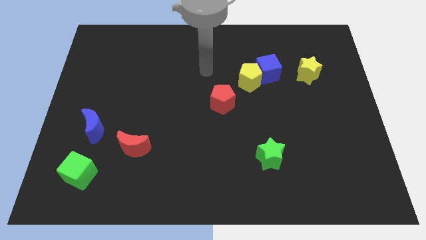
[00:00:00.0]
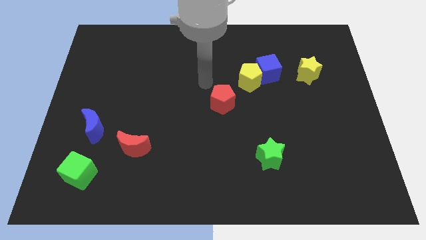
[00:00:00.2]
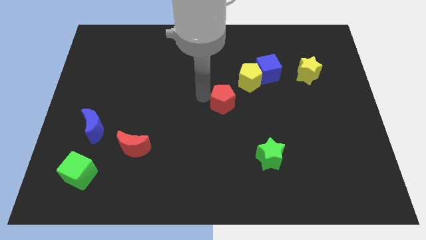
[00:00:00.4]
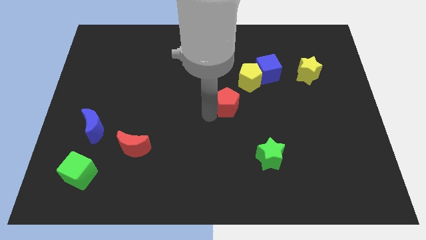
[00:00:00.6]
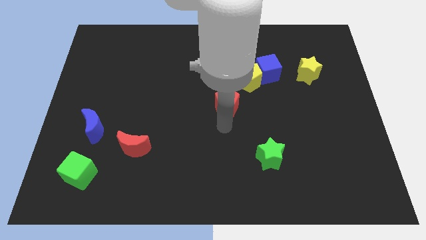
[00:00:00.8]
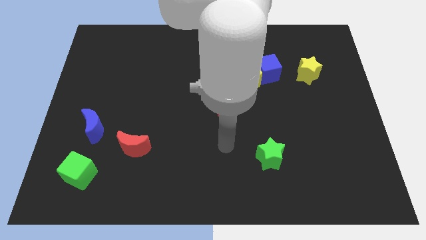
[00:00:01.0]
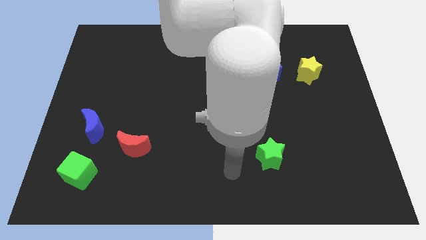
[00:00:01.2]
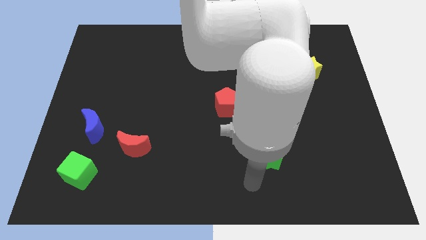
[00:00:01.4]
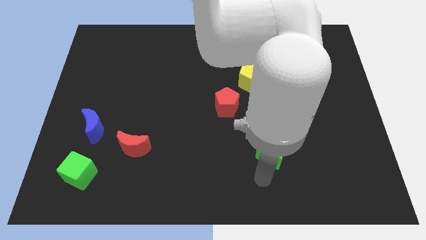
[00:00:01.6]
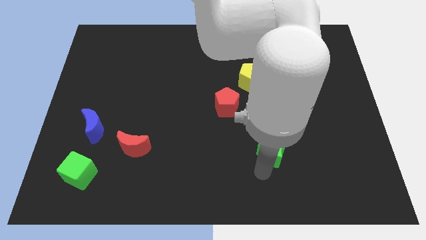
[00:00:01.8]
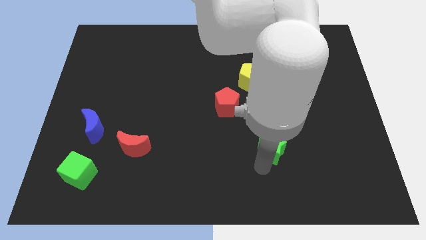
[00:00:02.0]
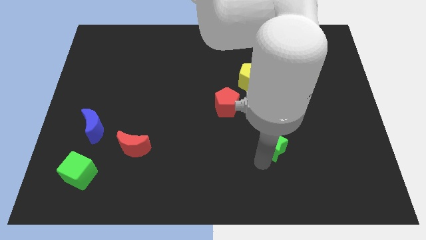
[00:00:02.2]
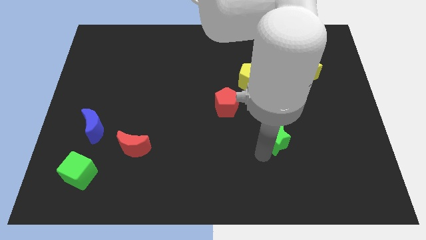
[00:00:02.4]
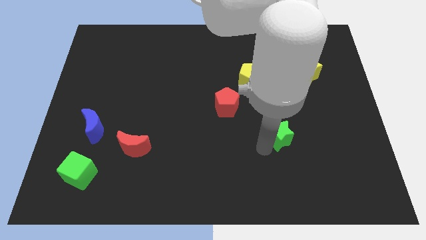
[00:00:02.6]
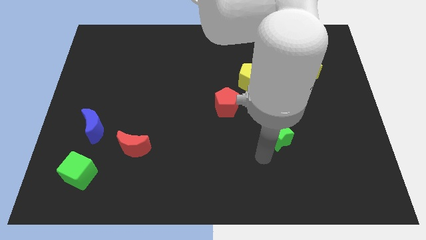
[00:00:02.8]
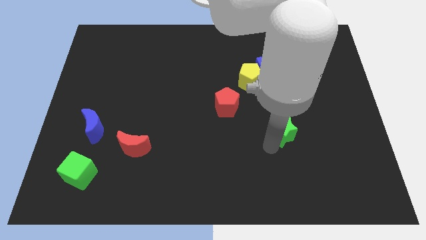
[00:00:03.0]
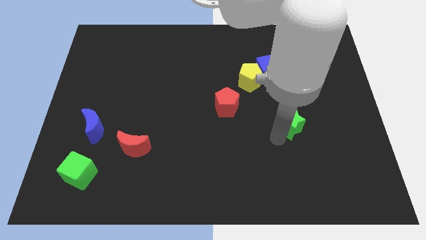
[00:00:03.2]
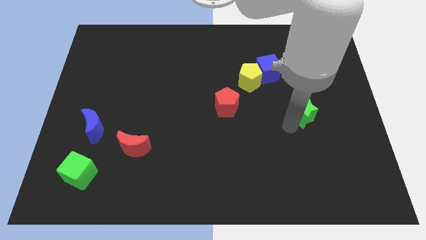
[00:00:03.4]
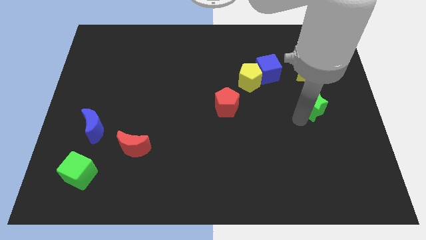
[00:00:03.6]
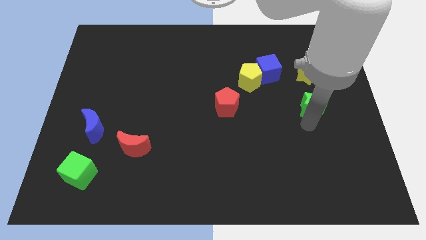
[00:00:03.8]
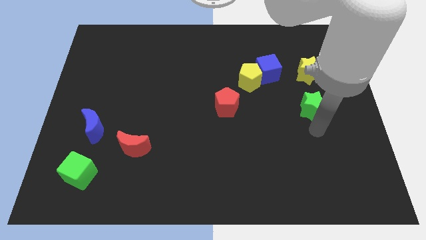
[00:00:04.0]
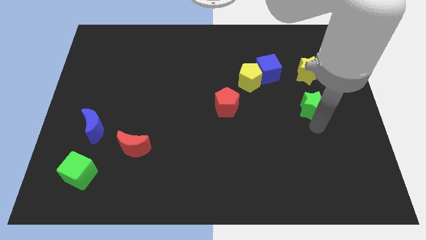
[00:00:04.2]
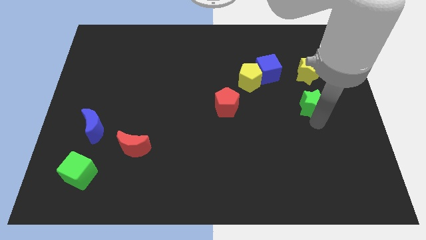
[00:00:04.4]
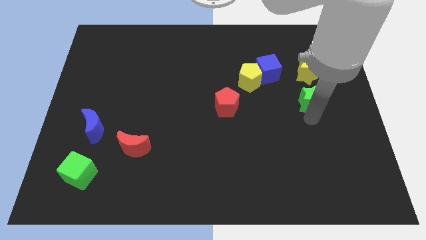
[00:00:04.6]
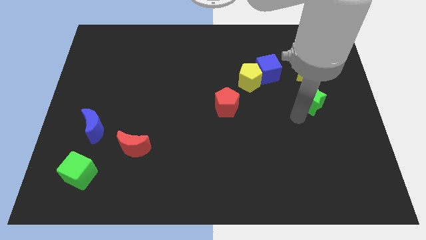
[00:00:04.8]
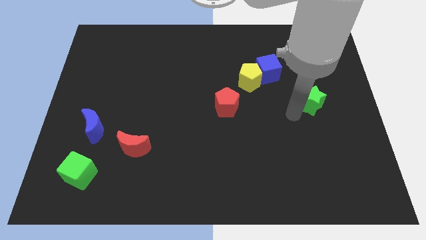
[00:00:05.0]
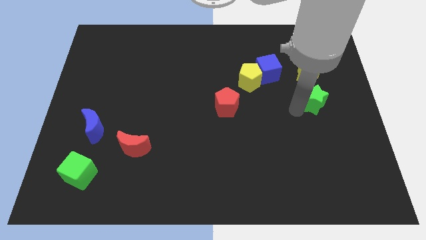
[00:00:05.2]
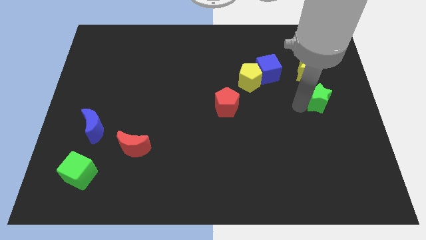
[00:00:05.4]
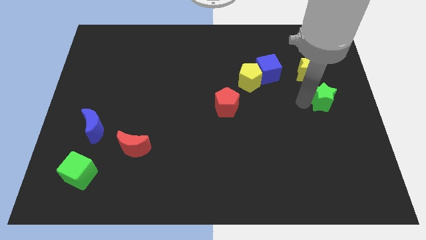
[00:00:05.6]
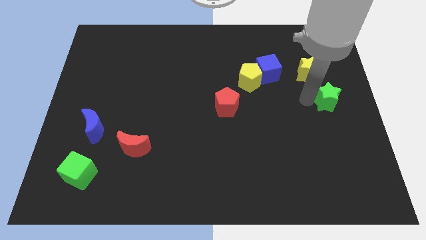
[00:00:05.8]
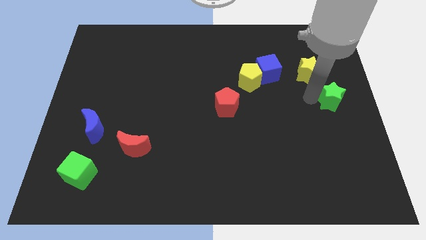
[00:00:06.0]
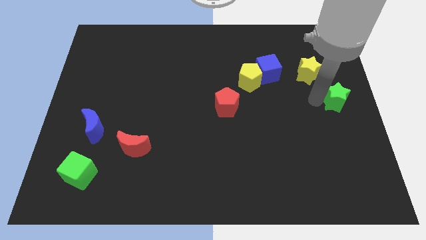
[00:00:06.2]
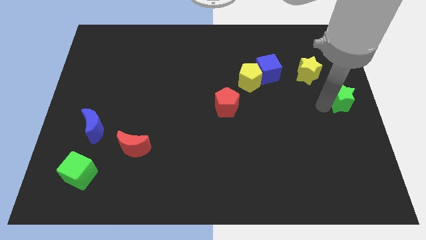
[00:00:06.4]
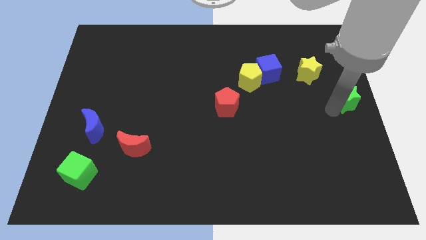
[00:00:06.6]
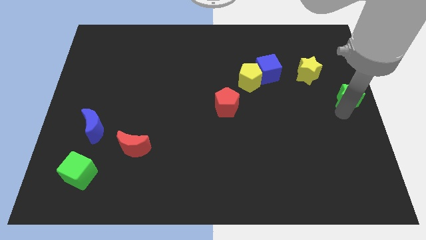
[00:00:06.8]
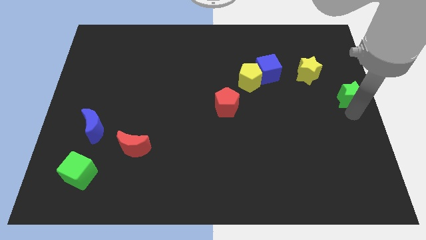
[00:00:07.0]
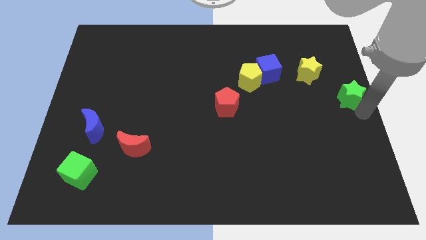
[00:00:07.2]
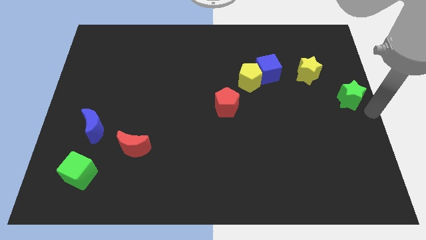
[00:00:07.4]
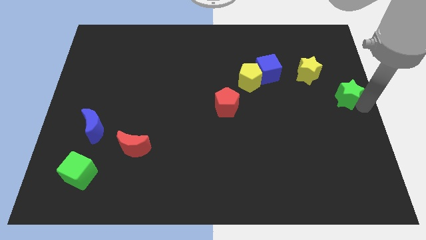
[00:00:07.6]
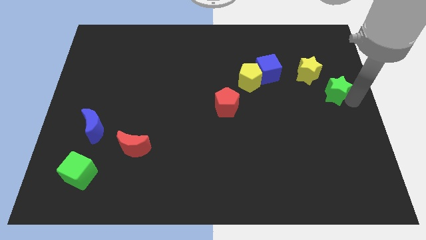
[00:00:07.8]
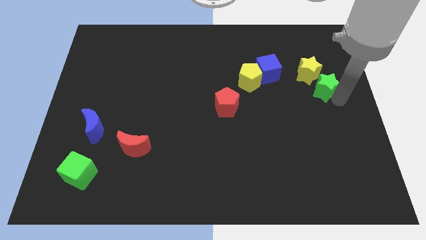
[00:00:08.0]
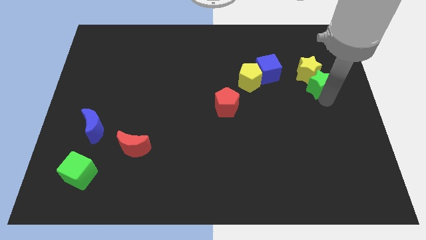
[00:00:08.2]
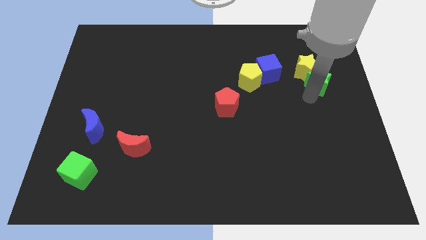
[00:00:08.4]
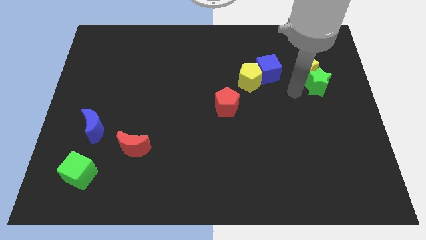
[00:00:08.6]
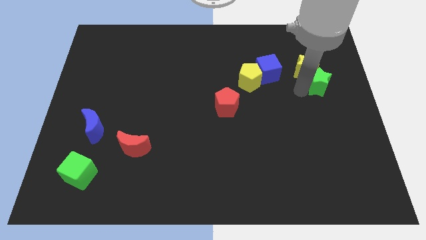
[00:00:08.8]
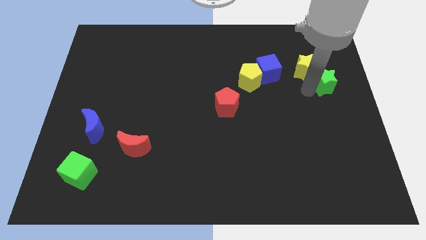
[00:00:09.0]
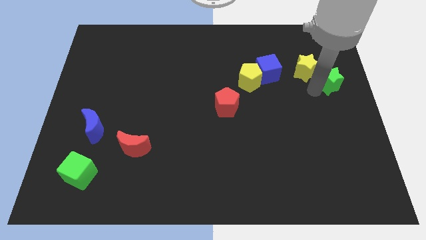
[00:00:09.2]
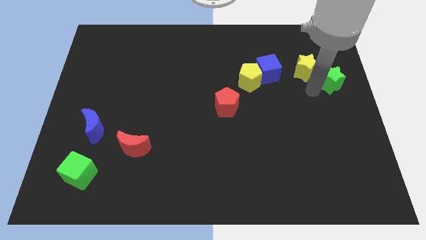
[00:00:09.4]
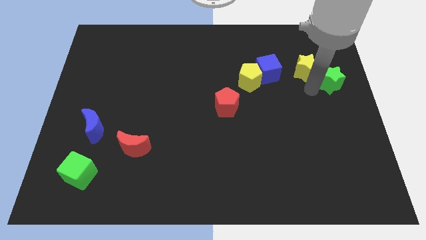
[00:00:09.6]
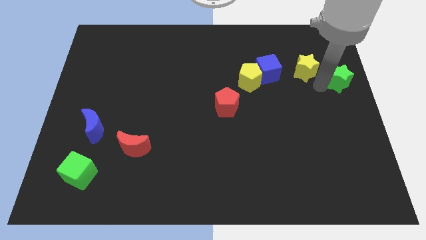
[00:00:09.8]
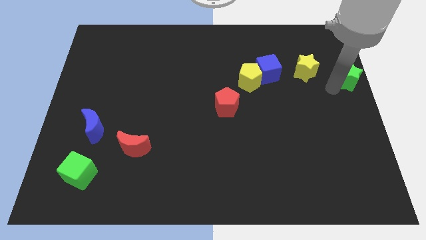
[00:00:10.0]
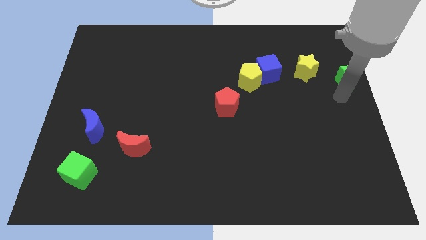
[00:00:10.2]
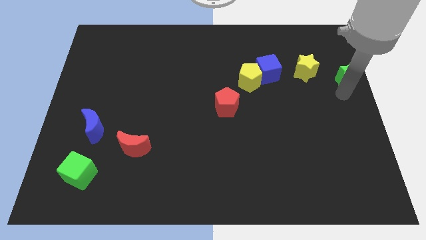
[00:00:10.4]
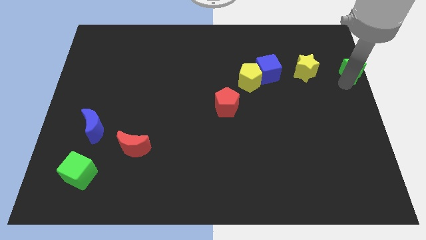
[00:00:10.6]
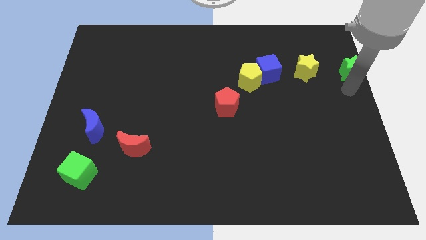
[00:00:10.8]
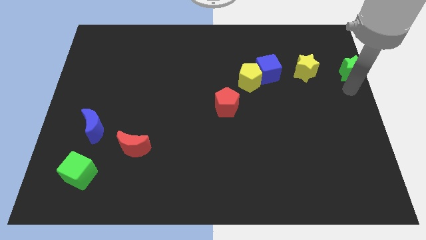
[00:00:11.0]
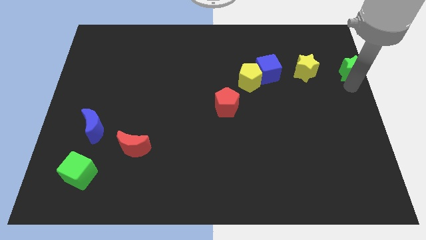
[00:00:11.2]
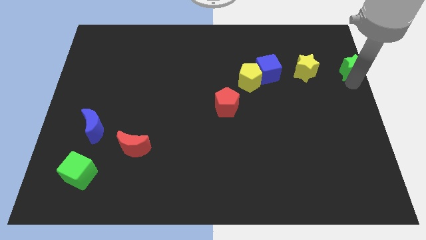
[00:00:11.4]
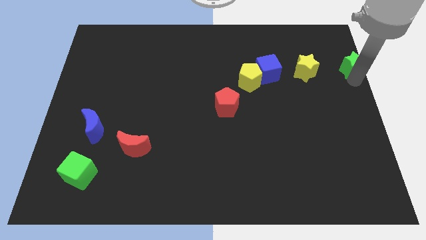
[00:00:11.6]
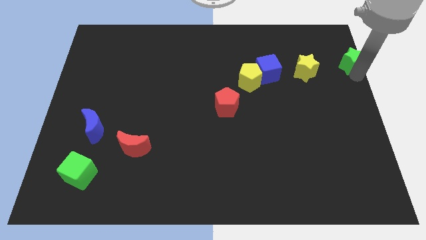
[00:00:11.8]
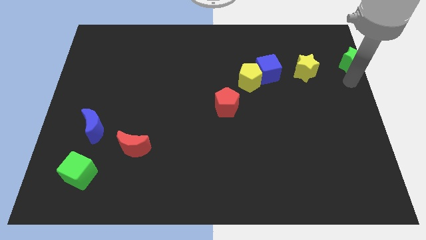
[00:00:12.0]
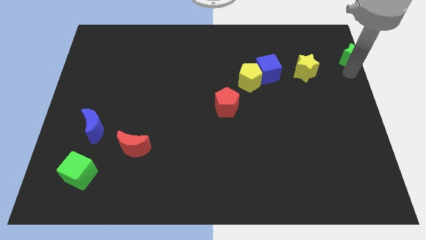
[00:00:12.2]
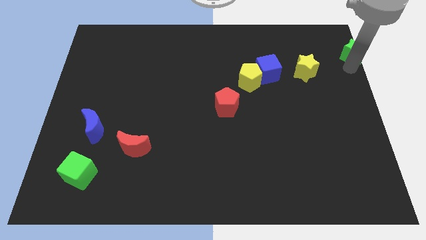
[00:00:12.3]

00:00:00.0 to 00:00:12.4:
put the green star to the top right

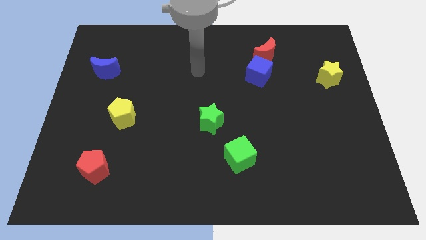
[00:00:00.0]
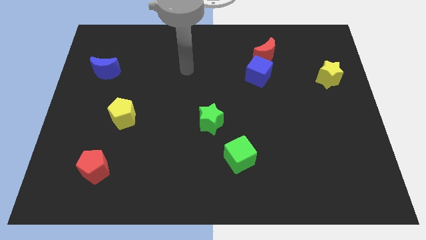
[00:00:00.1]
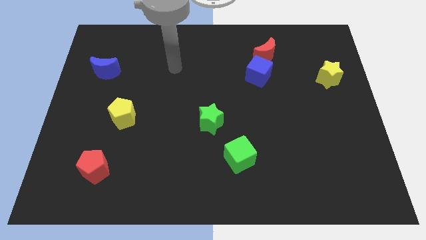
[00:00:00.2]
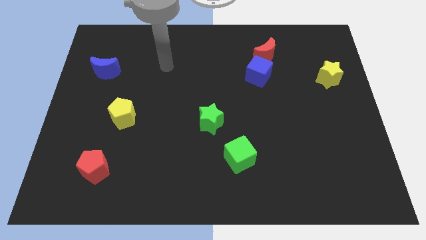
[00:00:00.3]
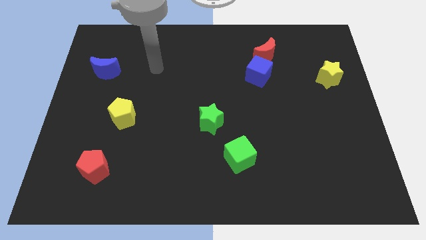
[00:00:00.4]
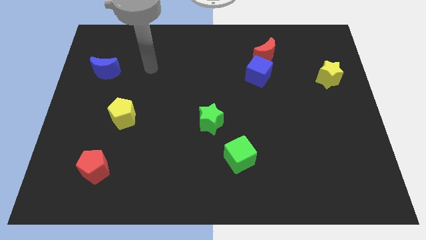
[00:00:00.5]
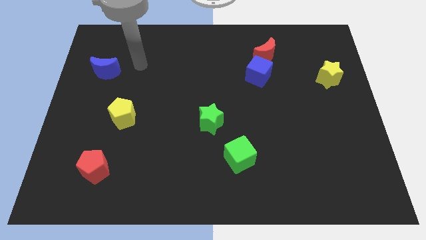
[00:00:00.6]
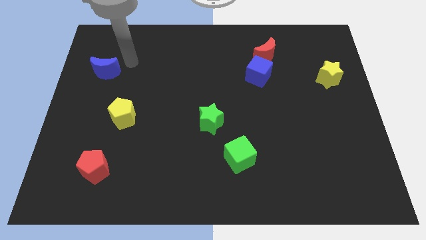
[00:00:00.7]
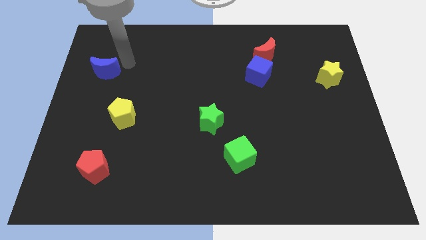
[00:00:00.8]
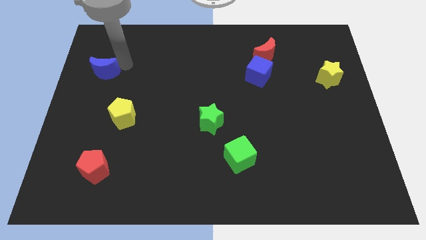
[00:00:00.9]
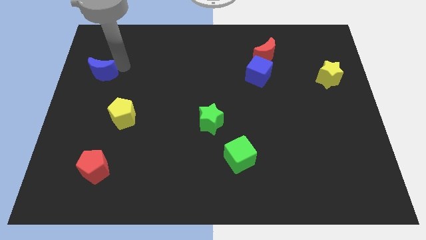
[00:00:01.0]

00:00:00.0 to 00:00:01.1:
push the blue moon to the left side of the board
